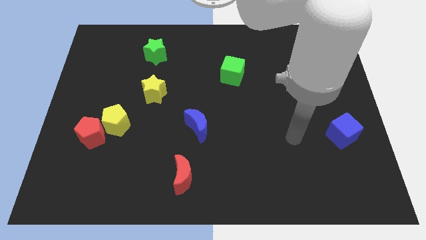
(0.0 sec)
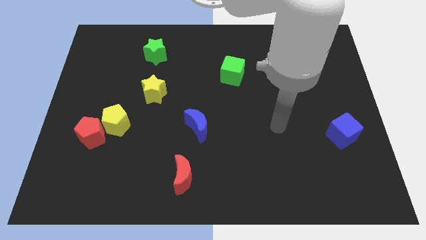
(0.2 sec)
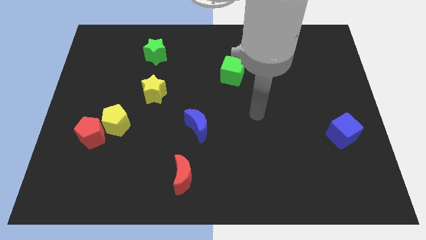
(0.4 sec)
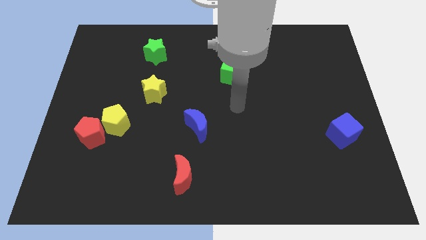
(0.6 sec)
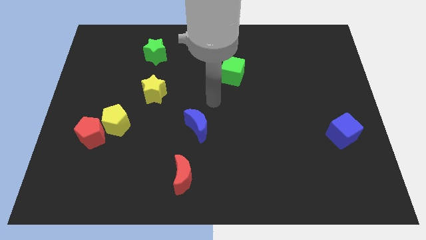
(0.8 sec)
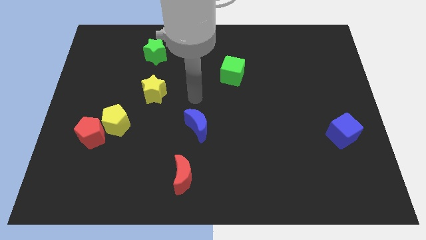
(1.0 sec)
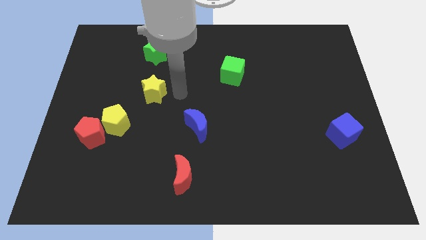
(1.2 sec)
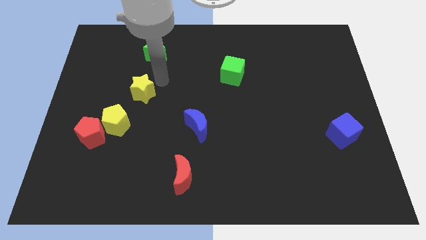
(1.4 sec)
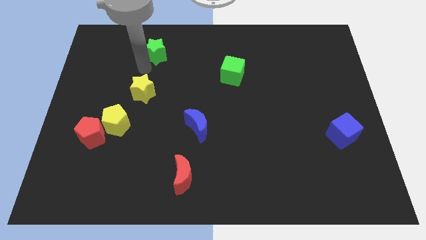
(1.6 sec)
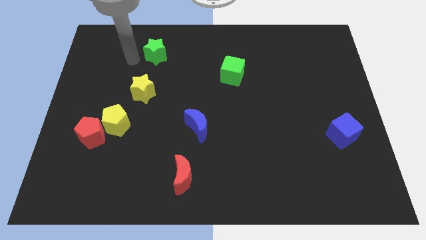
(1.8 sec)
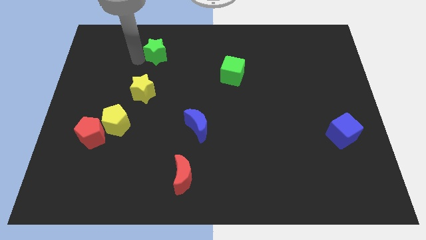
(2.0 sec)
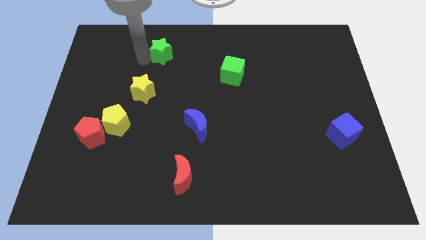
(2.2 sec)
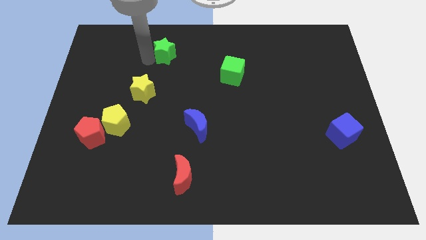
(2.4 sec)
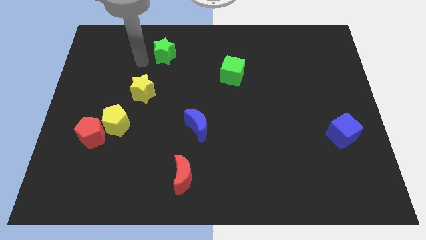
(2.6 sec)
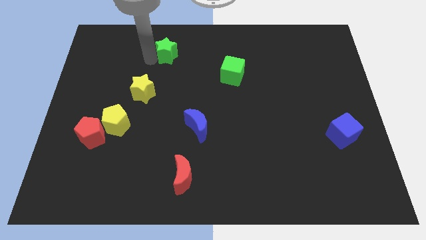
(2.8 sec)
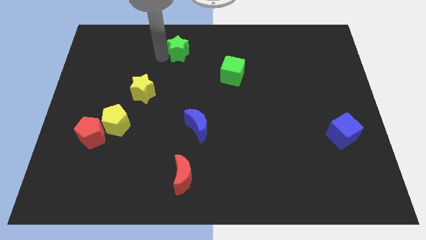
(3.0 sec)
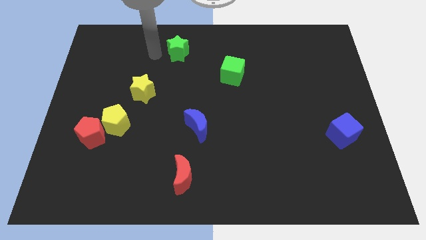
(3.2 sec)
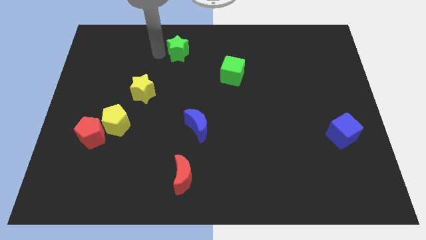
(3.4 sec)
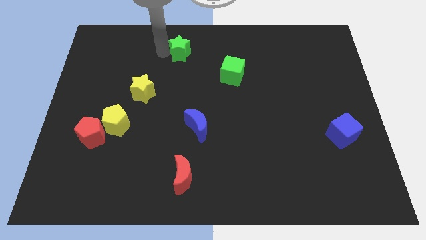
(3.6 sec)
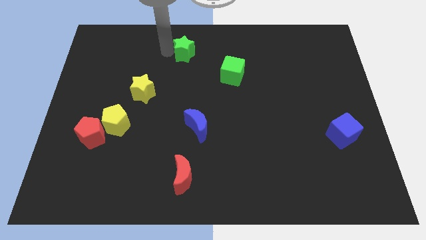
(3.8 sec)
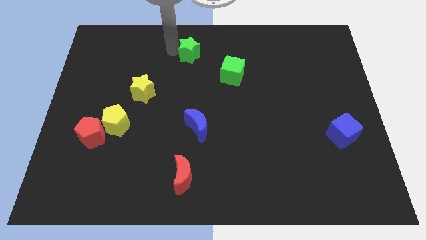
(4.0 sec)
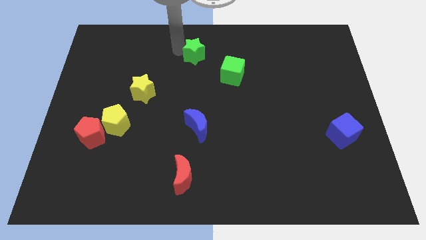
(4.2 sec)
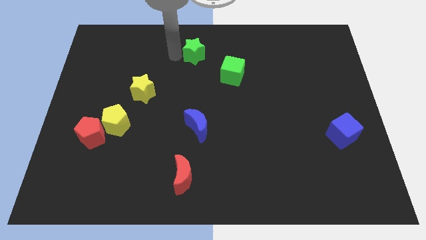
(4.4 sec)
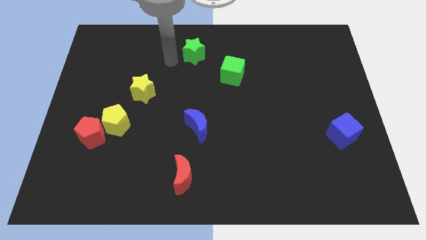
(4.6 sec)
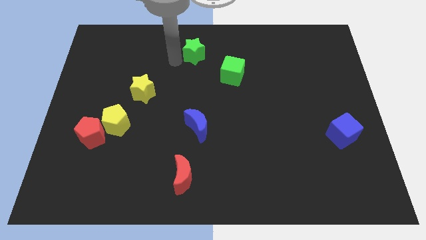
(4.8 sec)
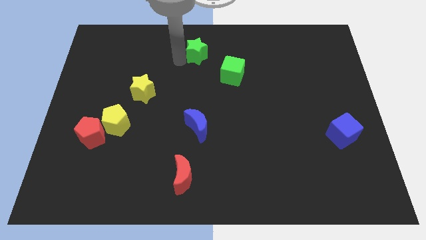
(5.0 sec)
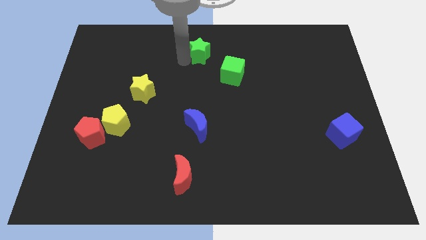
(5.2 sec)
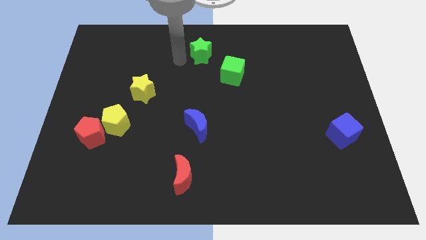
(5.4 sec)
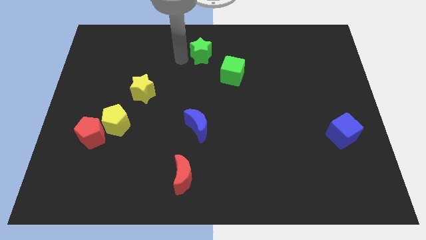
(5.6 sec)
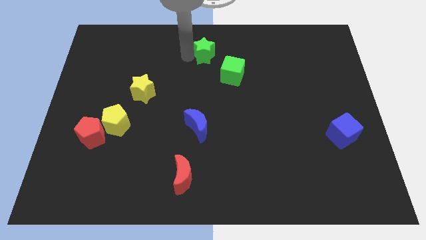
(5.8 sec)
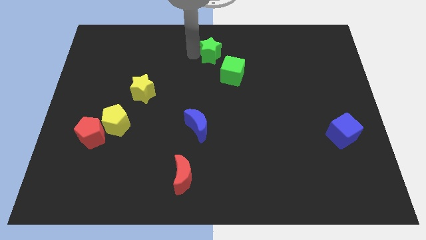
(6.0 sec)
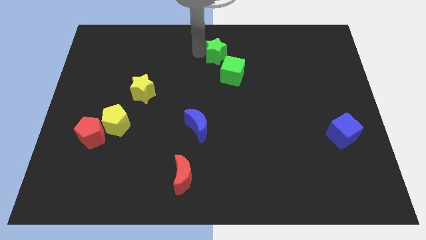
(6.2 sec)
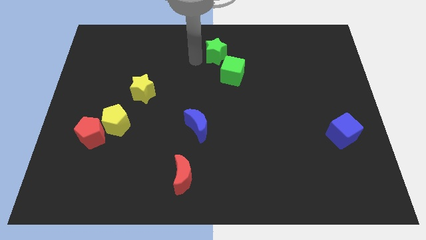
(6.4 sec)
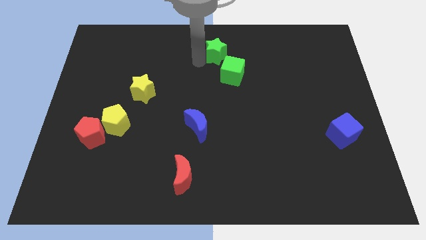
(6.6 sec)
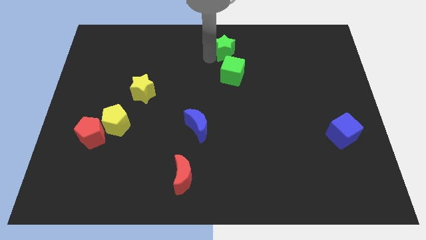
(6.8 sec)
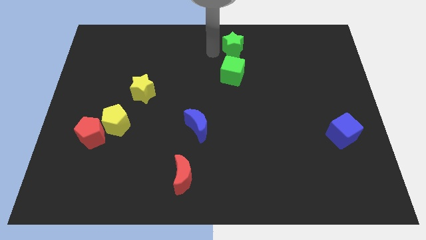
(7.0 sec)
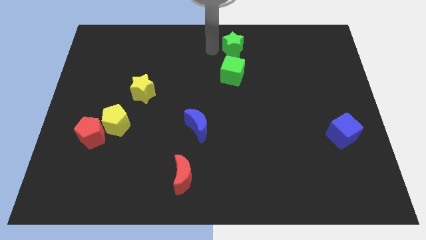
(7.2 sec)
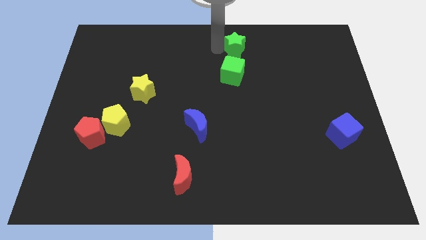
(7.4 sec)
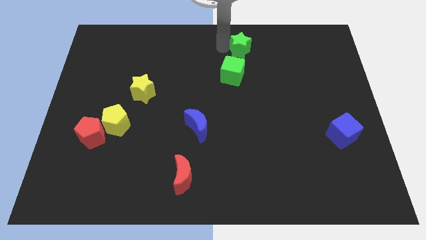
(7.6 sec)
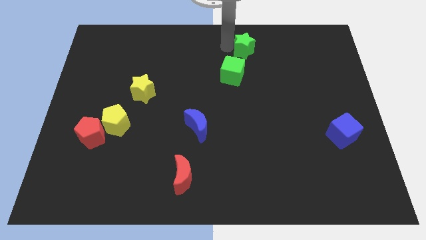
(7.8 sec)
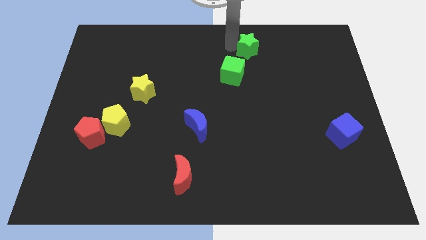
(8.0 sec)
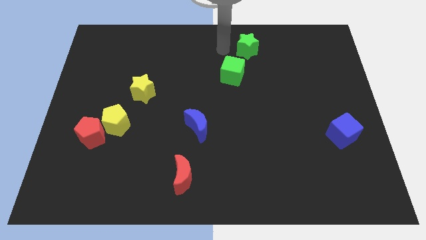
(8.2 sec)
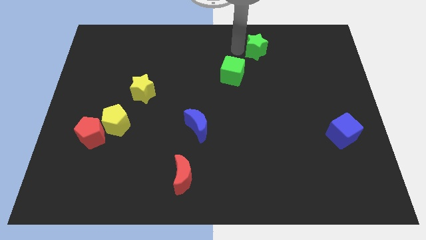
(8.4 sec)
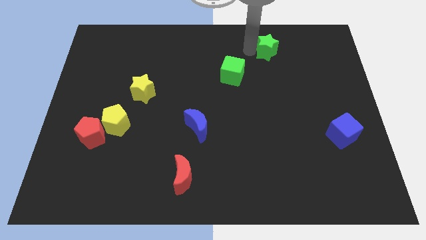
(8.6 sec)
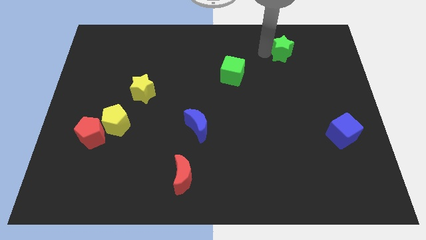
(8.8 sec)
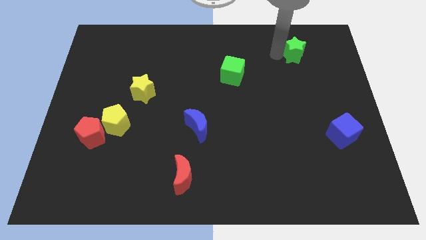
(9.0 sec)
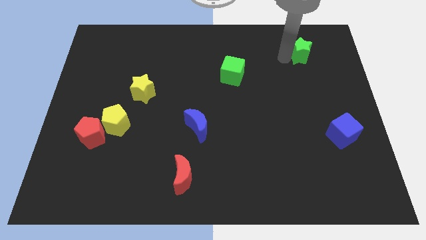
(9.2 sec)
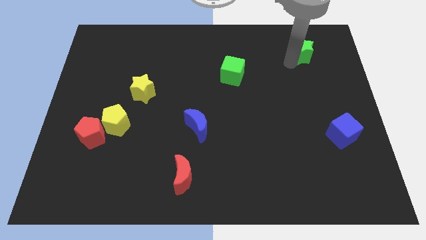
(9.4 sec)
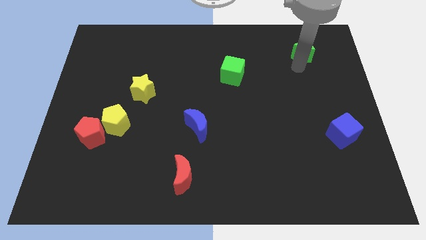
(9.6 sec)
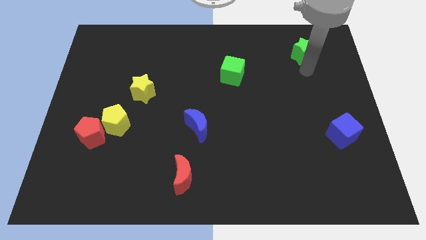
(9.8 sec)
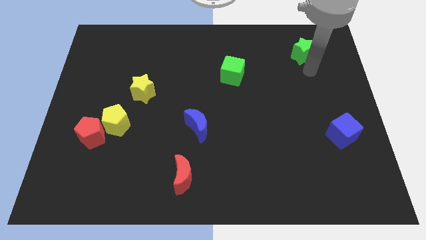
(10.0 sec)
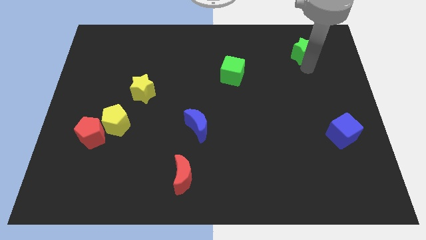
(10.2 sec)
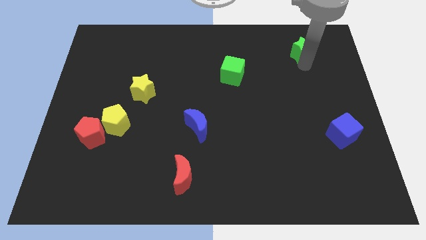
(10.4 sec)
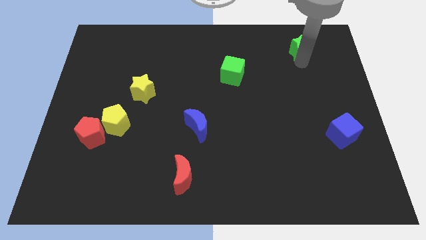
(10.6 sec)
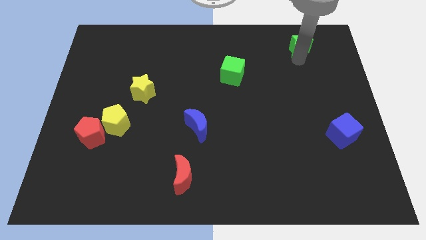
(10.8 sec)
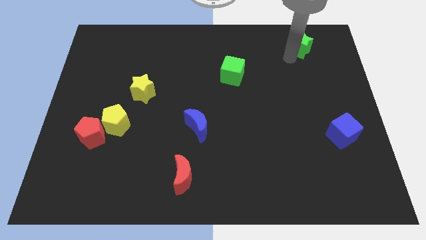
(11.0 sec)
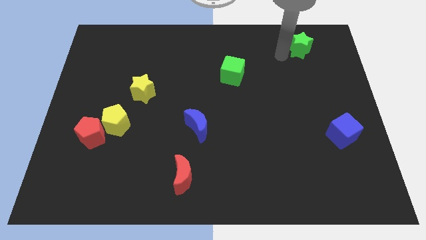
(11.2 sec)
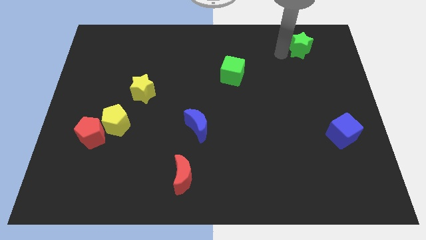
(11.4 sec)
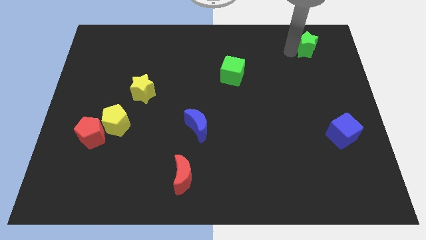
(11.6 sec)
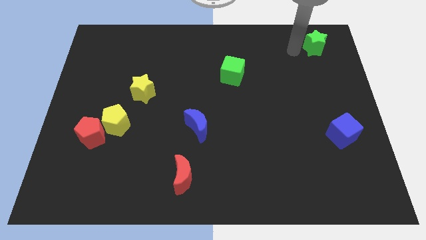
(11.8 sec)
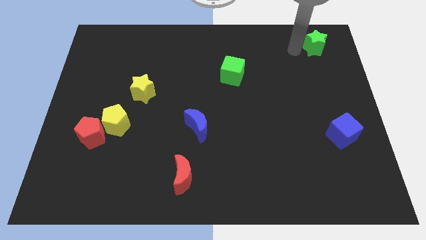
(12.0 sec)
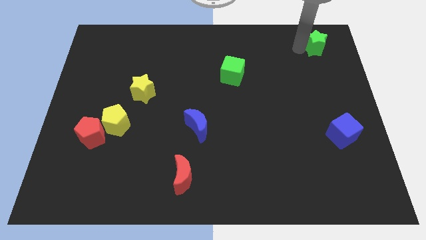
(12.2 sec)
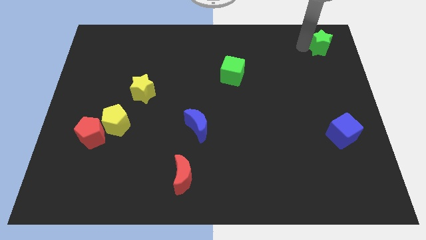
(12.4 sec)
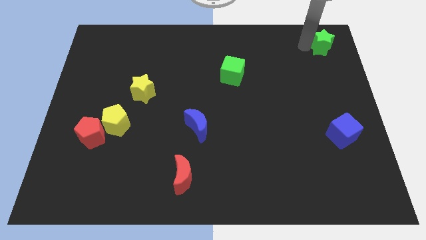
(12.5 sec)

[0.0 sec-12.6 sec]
move the green star to the top right corner
